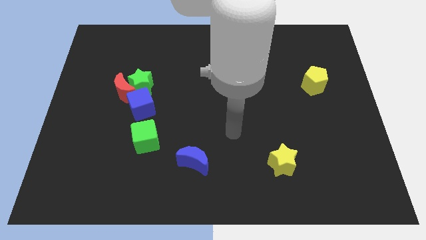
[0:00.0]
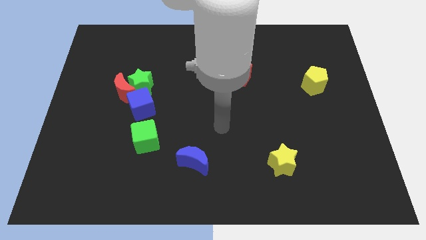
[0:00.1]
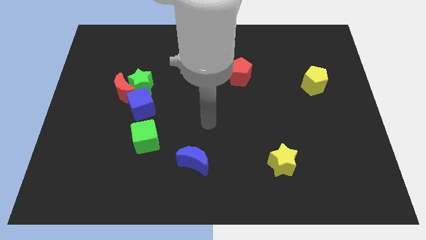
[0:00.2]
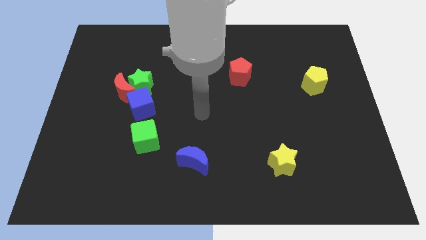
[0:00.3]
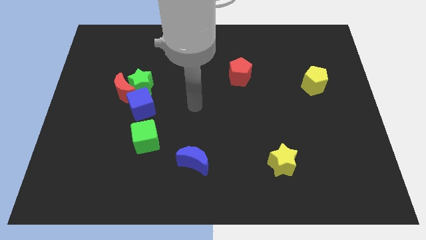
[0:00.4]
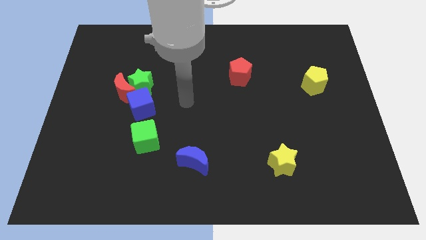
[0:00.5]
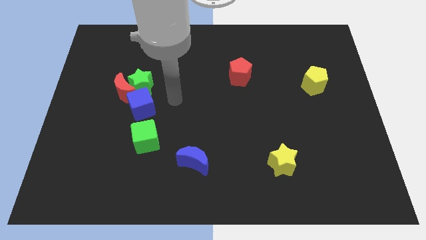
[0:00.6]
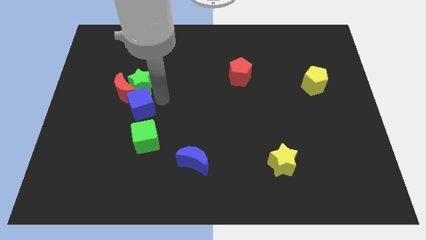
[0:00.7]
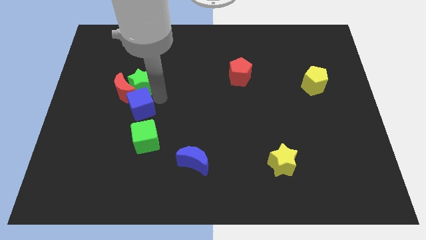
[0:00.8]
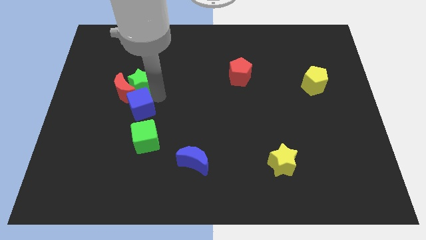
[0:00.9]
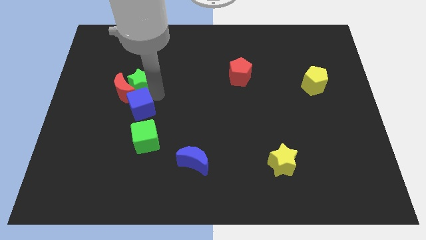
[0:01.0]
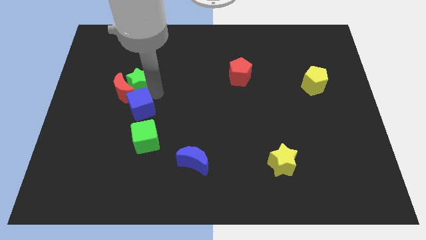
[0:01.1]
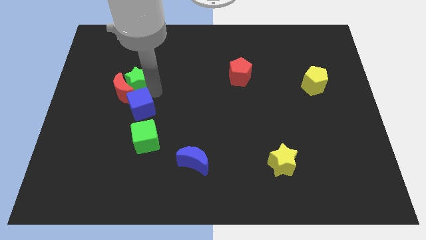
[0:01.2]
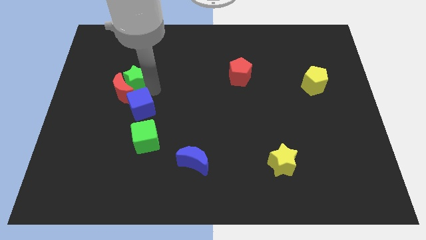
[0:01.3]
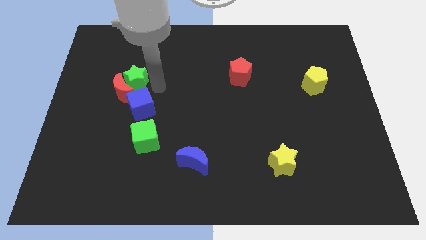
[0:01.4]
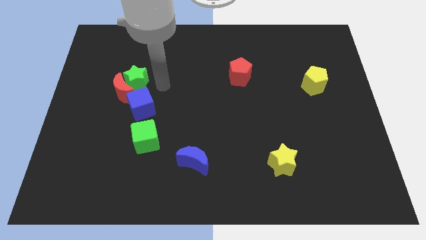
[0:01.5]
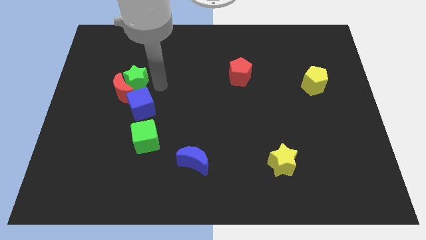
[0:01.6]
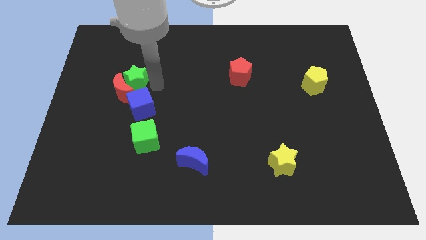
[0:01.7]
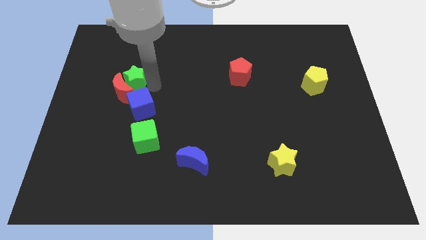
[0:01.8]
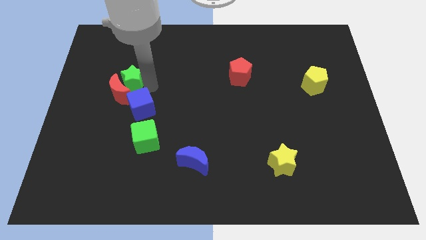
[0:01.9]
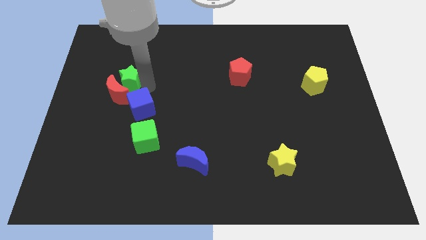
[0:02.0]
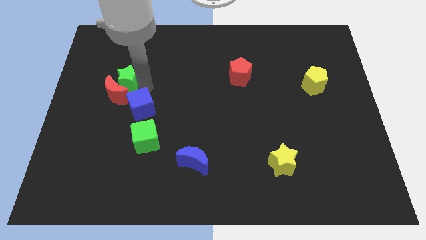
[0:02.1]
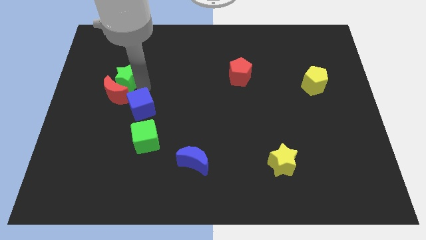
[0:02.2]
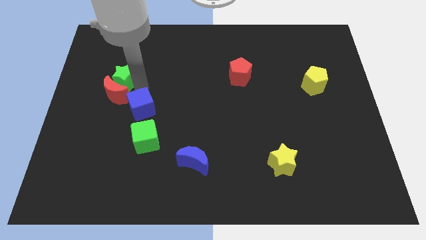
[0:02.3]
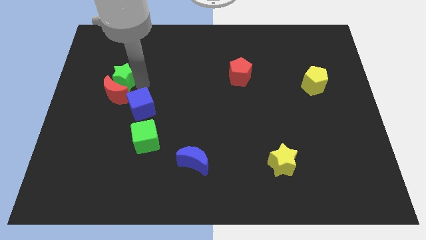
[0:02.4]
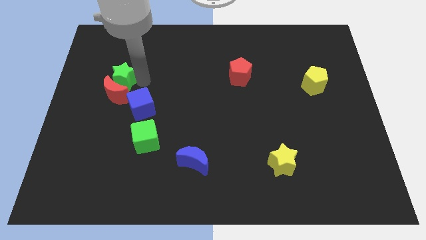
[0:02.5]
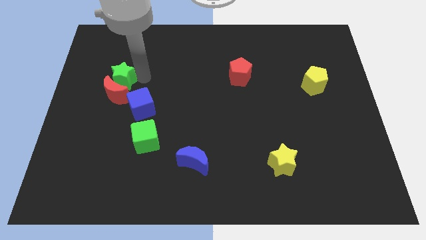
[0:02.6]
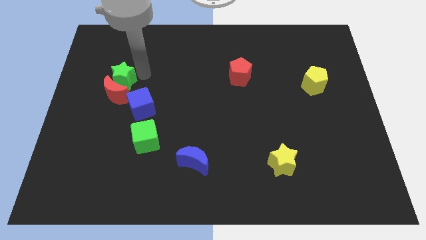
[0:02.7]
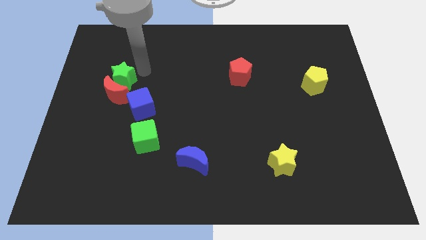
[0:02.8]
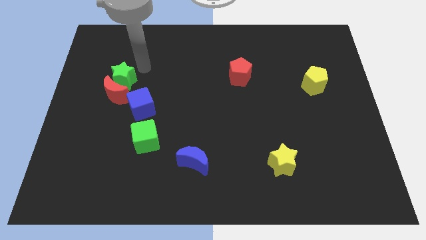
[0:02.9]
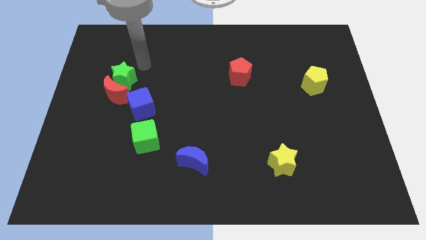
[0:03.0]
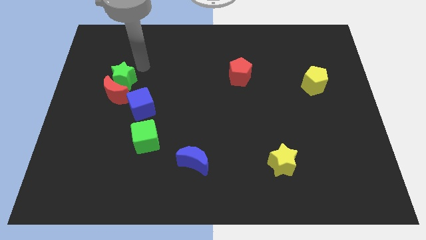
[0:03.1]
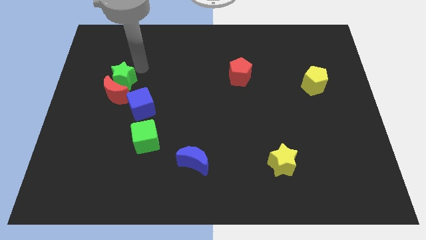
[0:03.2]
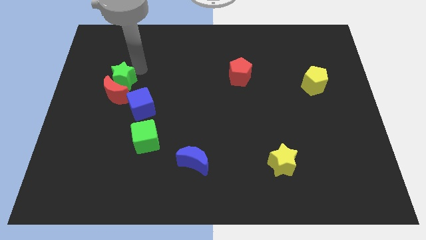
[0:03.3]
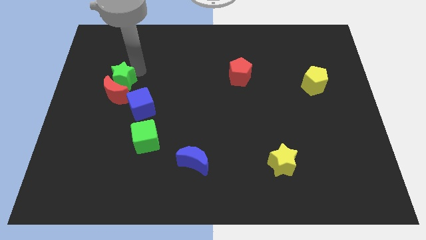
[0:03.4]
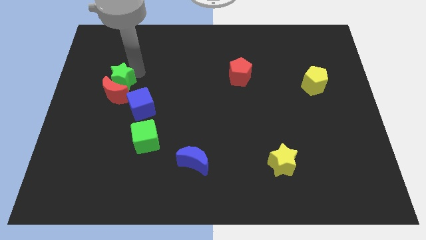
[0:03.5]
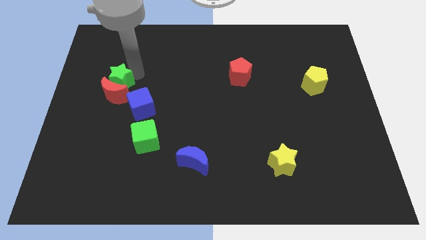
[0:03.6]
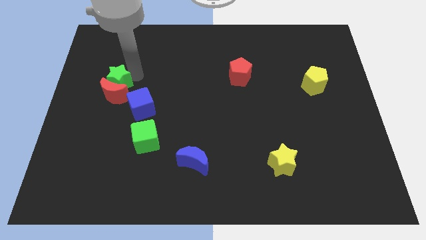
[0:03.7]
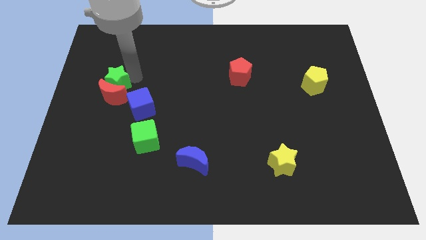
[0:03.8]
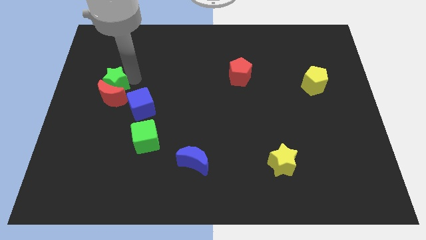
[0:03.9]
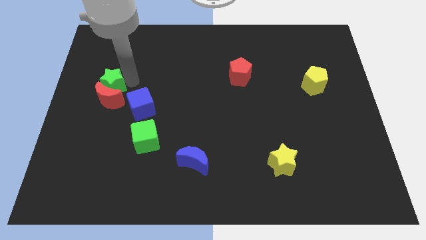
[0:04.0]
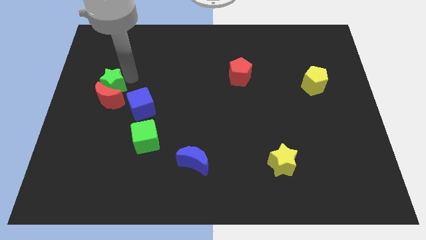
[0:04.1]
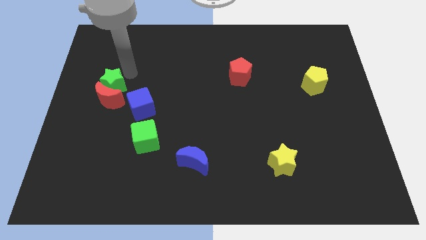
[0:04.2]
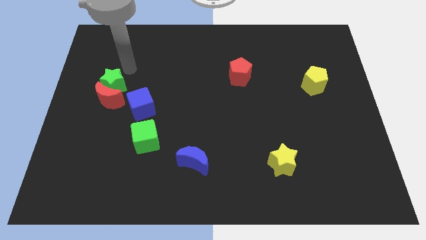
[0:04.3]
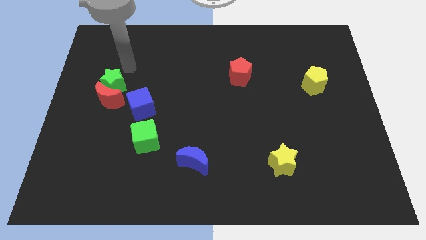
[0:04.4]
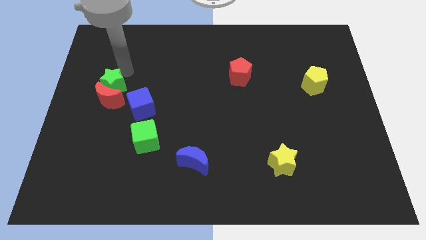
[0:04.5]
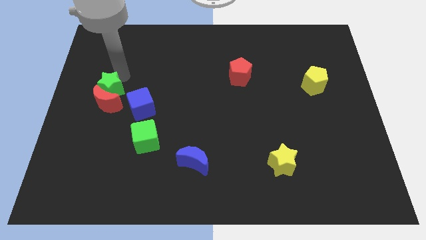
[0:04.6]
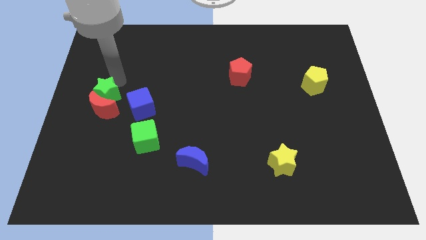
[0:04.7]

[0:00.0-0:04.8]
move the green star left of the blue cube

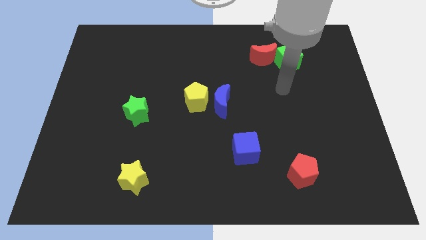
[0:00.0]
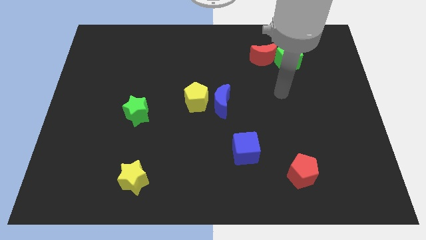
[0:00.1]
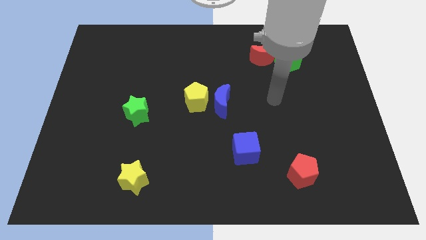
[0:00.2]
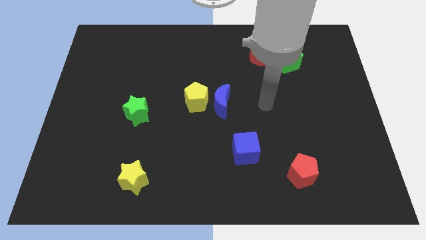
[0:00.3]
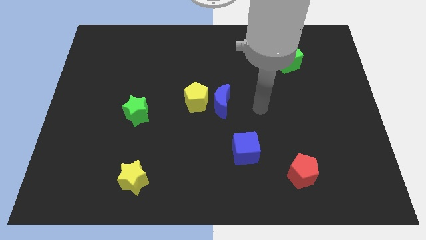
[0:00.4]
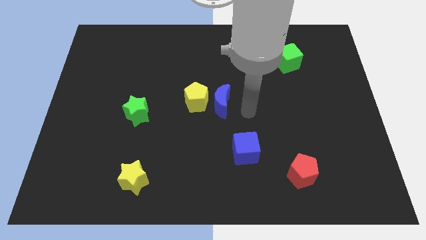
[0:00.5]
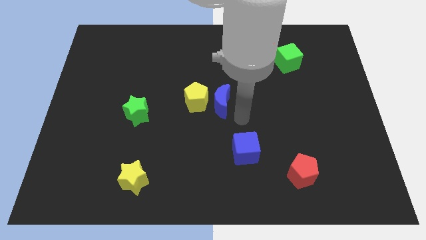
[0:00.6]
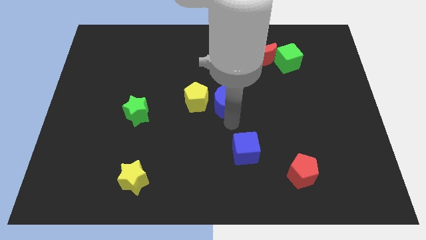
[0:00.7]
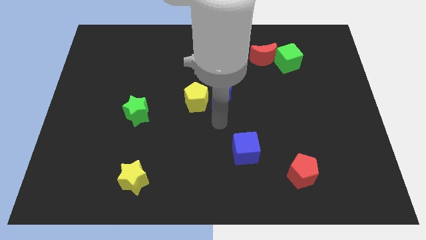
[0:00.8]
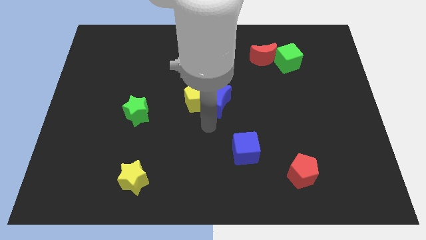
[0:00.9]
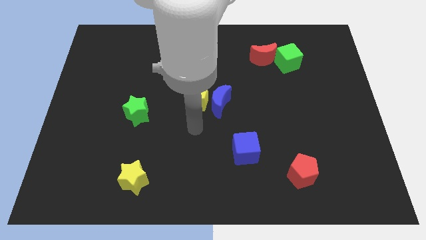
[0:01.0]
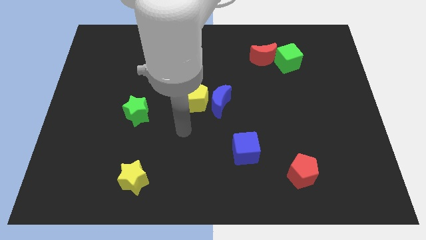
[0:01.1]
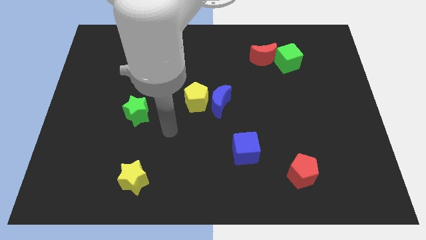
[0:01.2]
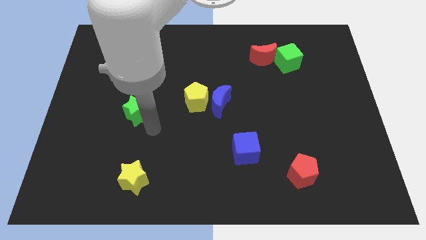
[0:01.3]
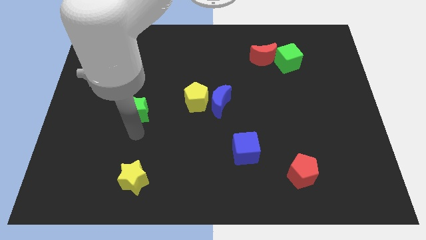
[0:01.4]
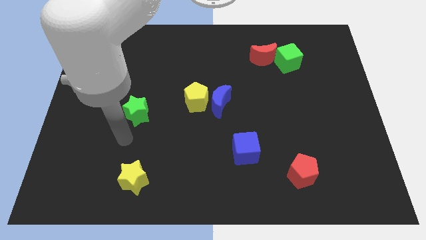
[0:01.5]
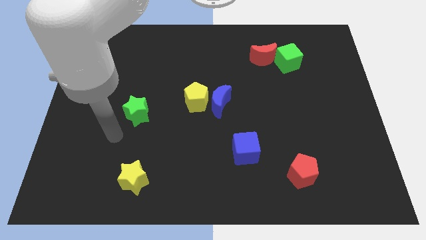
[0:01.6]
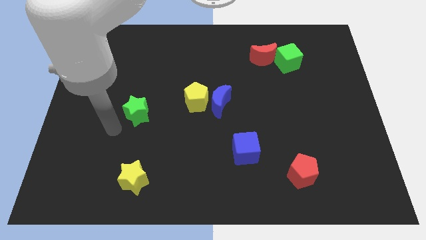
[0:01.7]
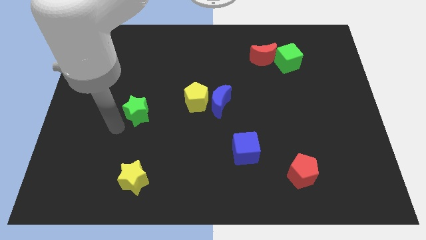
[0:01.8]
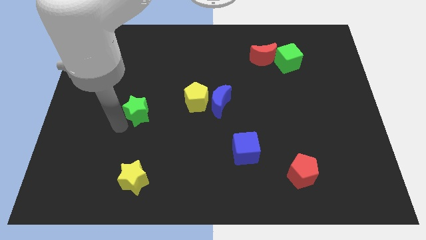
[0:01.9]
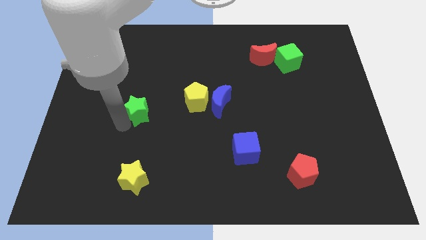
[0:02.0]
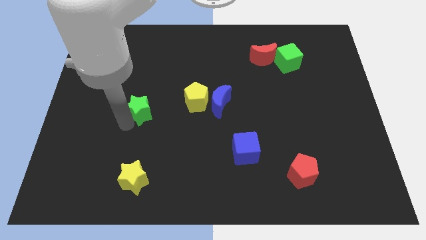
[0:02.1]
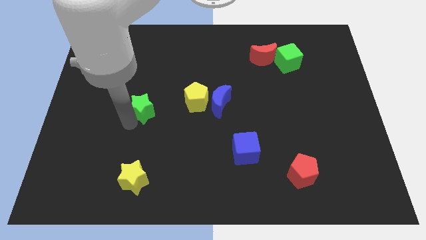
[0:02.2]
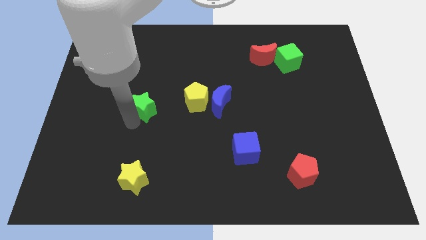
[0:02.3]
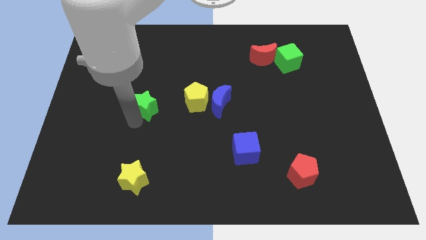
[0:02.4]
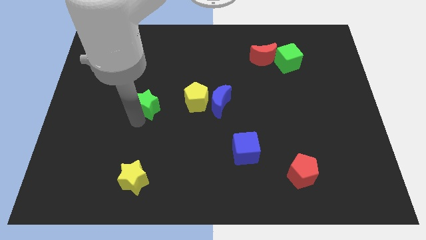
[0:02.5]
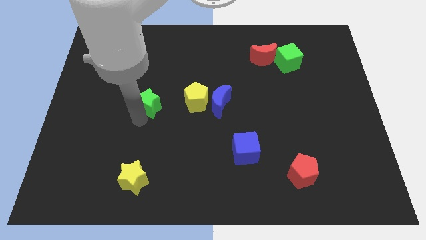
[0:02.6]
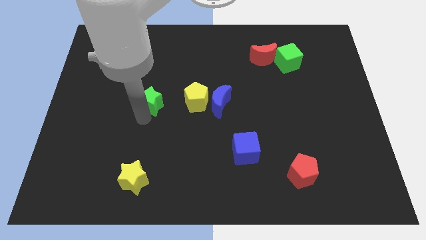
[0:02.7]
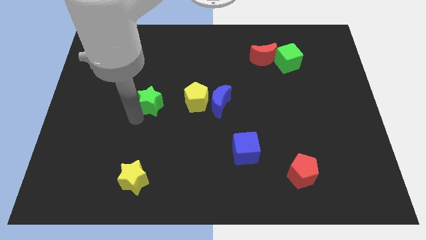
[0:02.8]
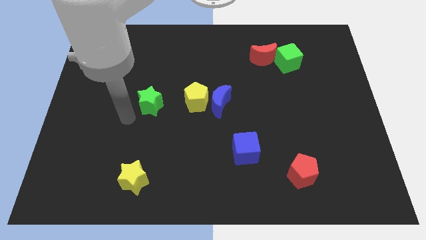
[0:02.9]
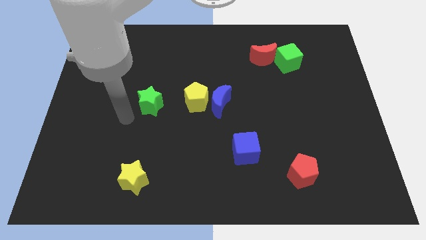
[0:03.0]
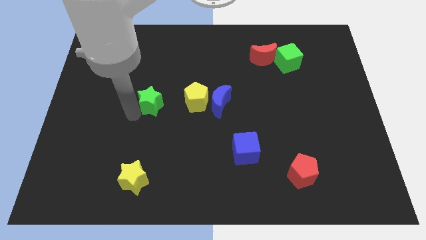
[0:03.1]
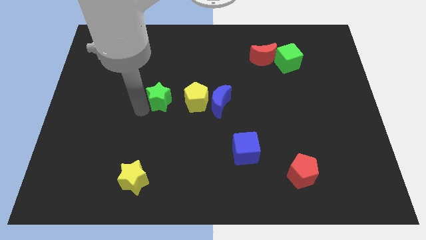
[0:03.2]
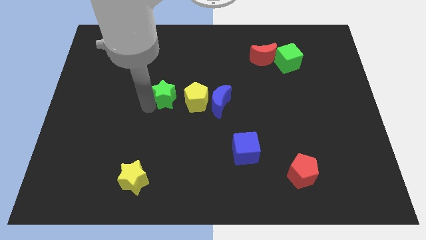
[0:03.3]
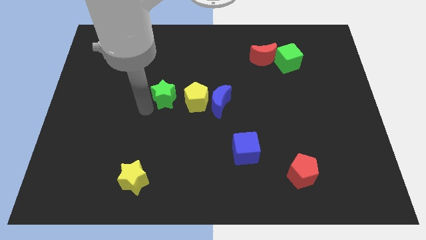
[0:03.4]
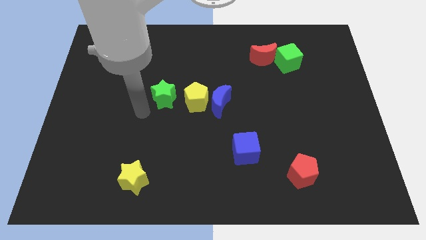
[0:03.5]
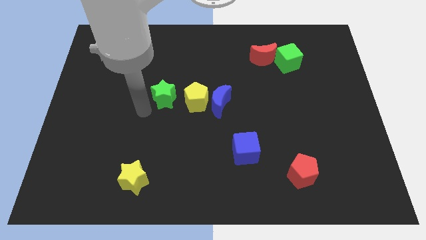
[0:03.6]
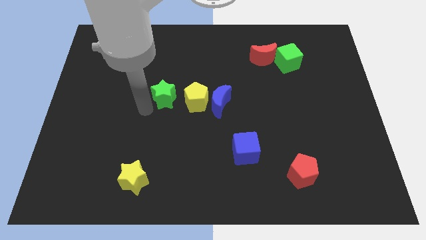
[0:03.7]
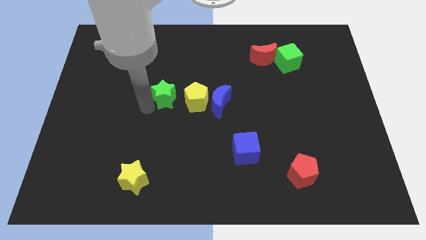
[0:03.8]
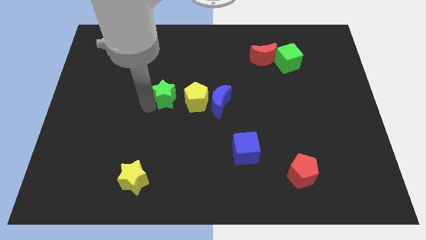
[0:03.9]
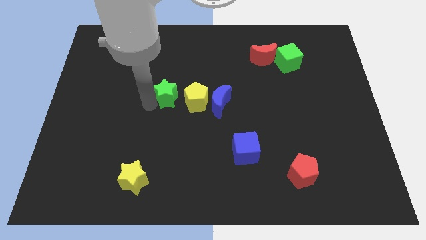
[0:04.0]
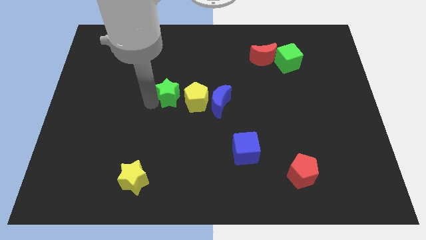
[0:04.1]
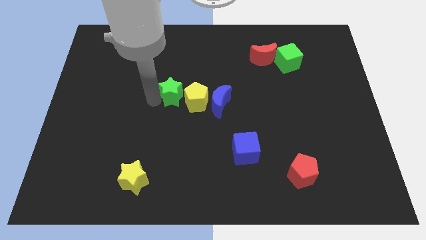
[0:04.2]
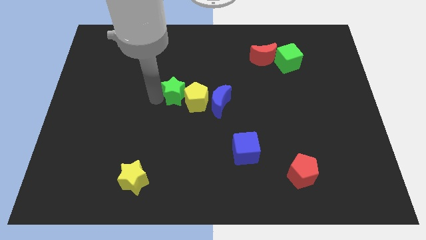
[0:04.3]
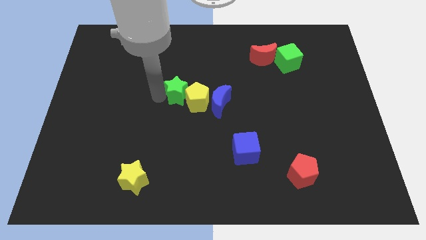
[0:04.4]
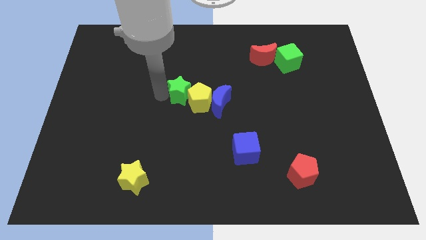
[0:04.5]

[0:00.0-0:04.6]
move the green star to the top left side of the blue moon
